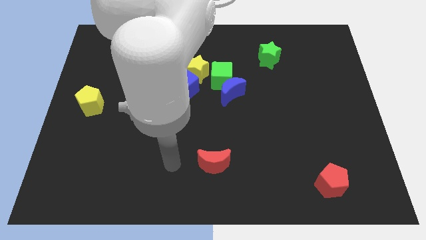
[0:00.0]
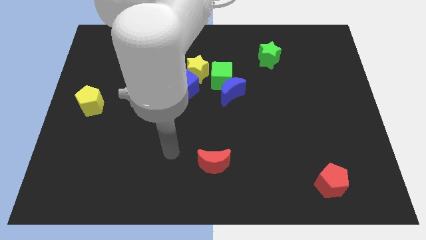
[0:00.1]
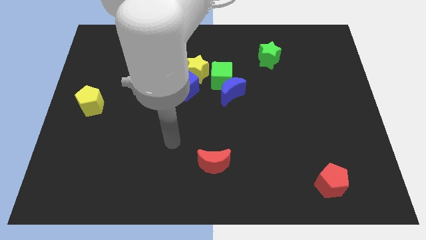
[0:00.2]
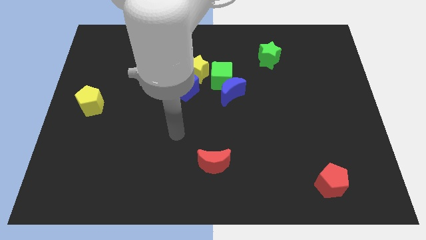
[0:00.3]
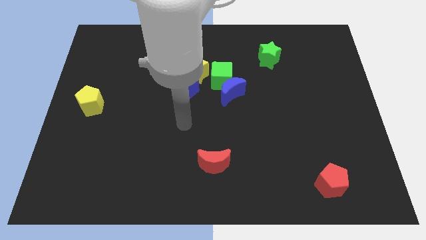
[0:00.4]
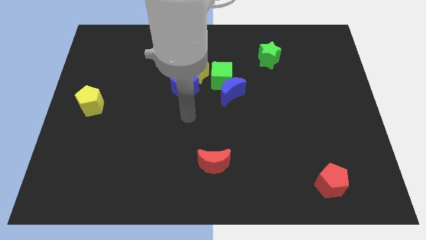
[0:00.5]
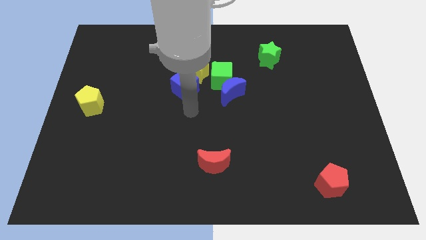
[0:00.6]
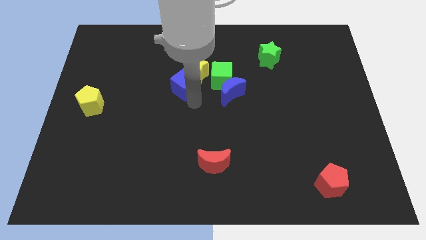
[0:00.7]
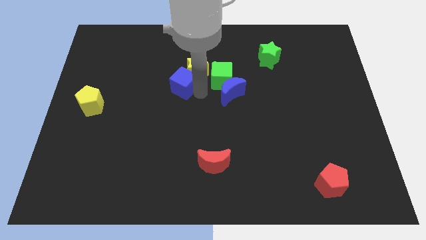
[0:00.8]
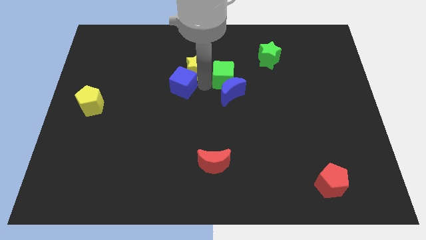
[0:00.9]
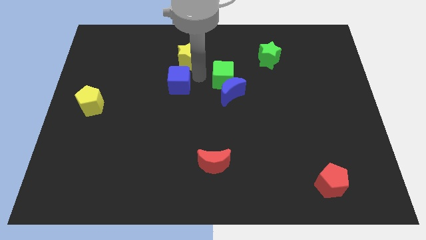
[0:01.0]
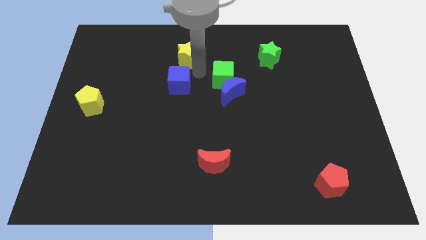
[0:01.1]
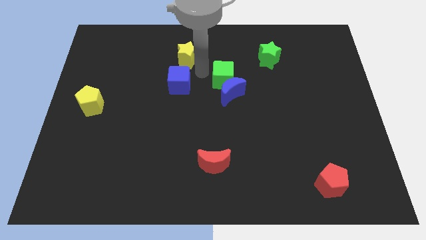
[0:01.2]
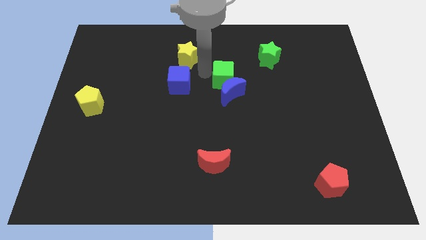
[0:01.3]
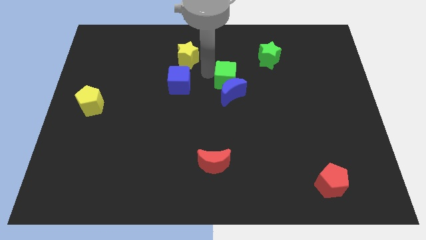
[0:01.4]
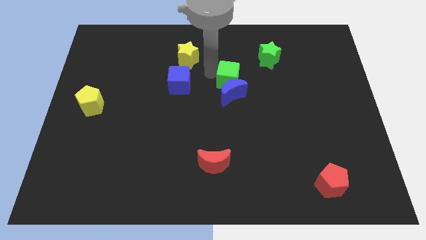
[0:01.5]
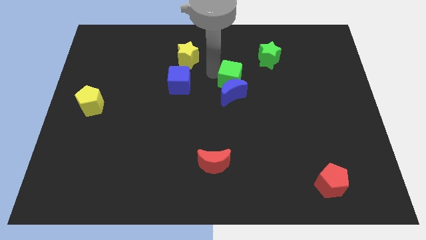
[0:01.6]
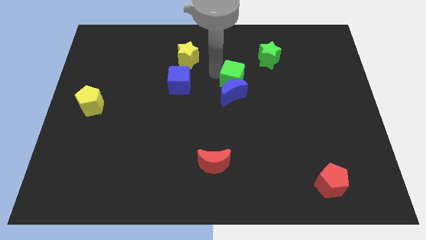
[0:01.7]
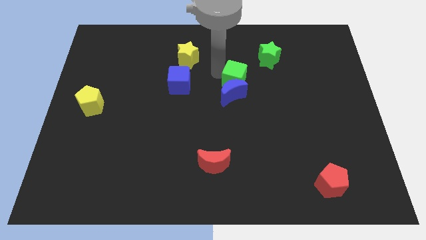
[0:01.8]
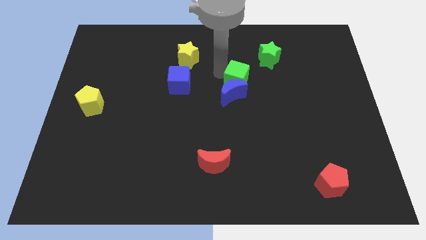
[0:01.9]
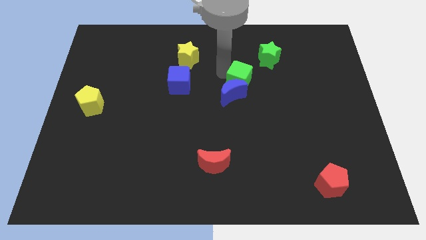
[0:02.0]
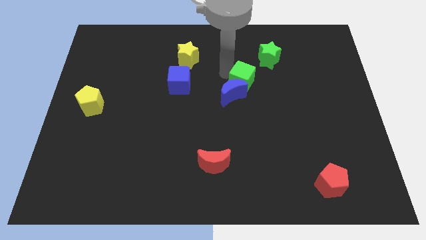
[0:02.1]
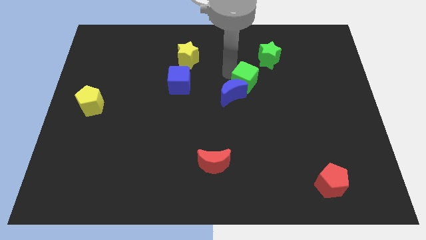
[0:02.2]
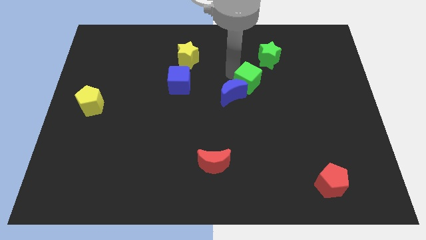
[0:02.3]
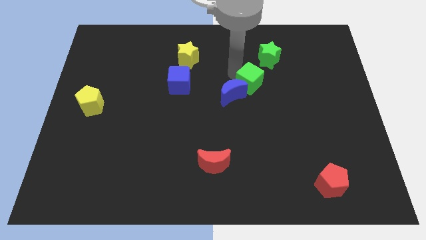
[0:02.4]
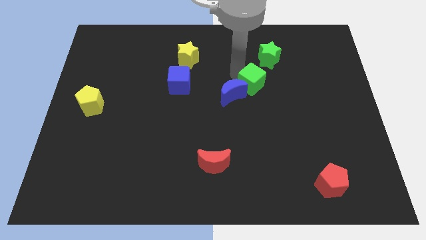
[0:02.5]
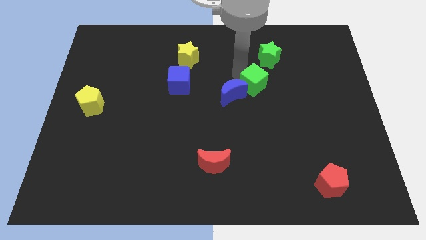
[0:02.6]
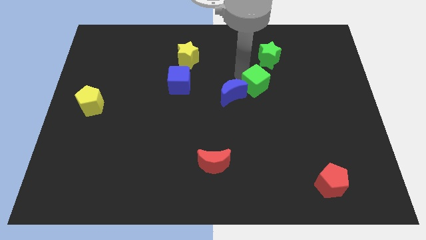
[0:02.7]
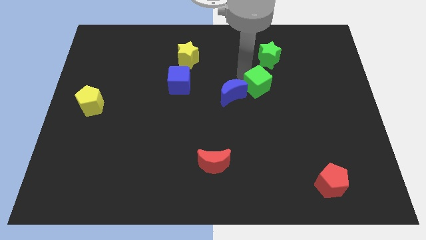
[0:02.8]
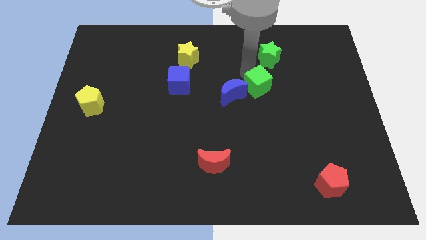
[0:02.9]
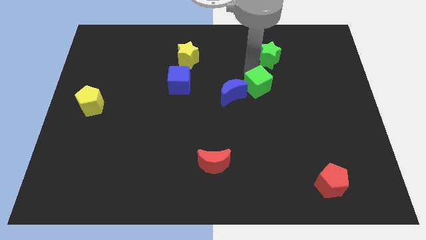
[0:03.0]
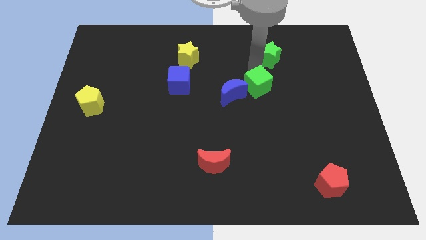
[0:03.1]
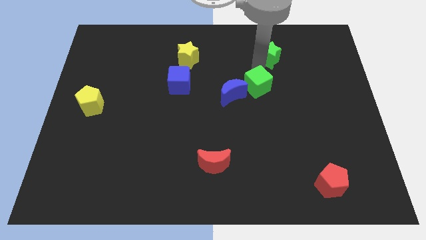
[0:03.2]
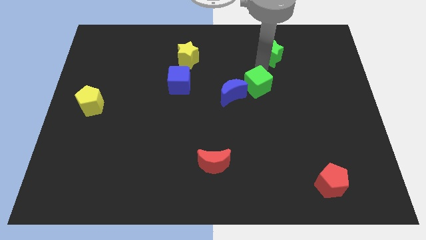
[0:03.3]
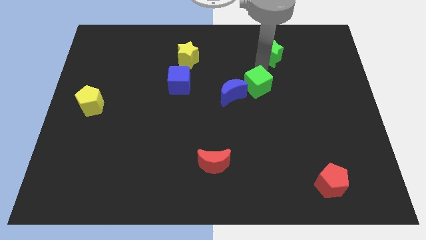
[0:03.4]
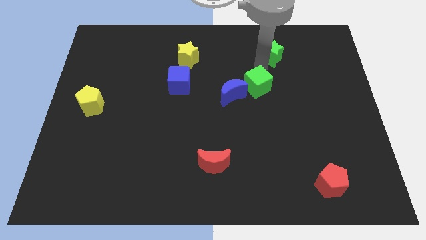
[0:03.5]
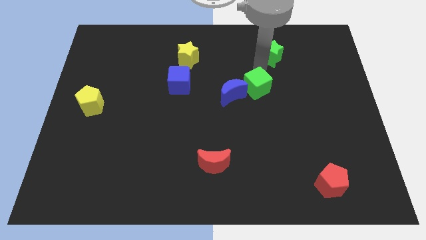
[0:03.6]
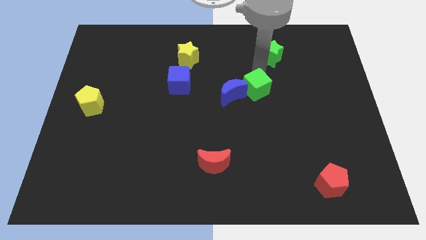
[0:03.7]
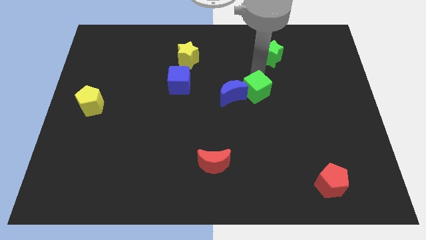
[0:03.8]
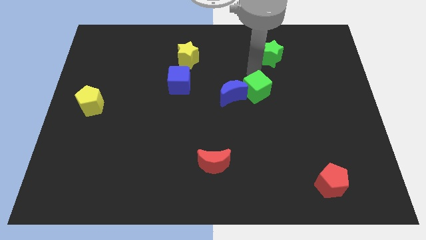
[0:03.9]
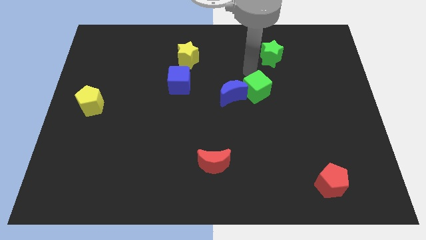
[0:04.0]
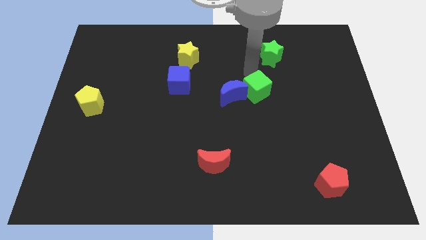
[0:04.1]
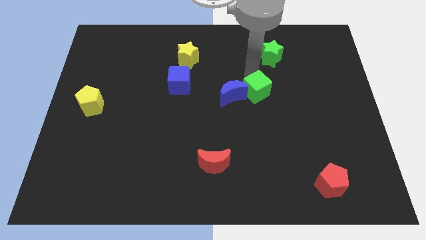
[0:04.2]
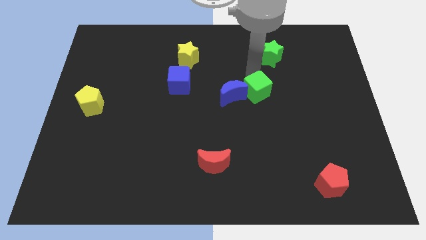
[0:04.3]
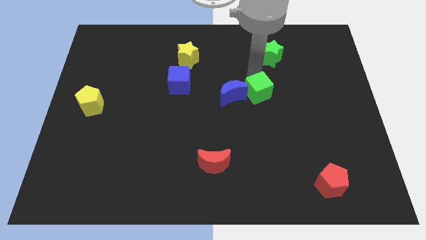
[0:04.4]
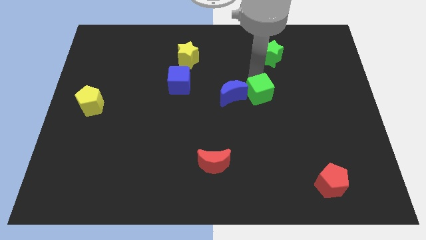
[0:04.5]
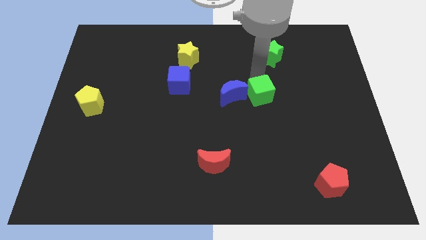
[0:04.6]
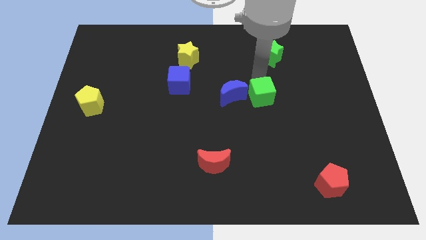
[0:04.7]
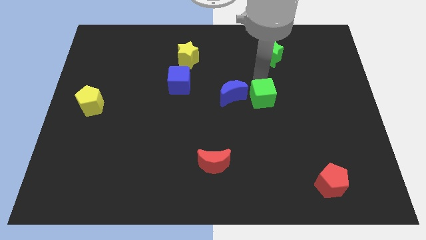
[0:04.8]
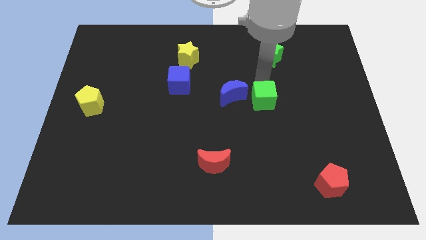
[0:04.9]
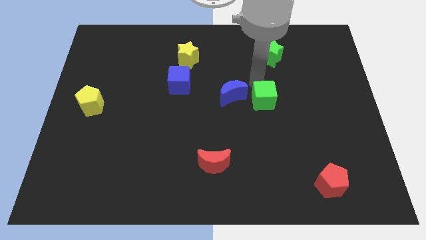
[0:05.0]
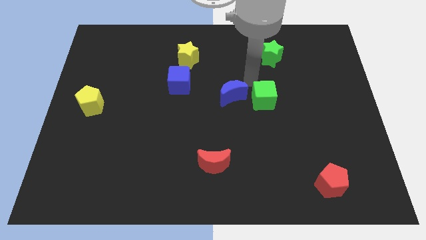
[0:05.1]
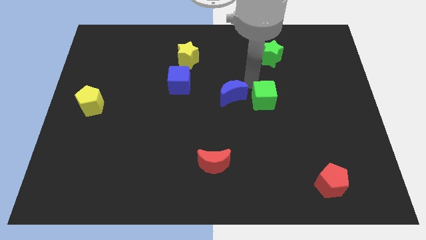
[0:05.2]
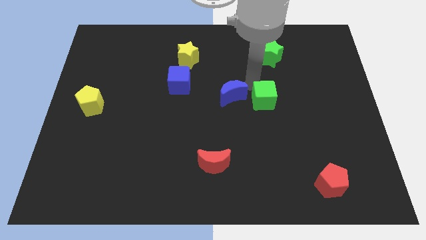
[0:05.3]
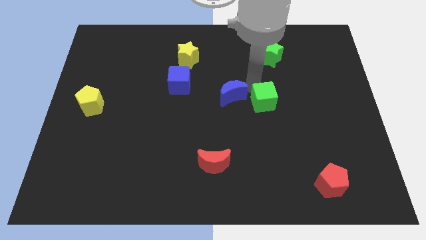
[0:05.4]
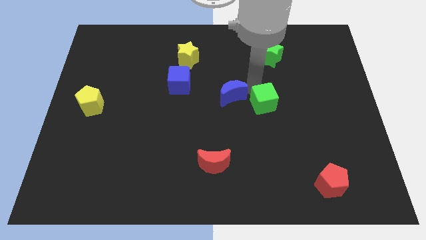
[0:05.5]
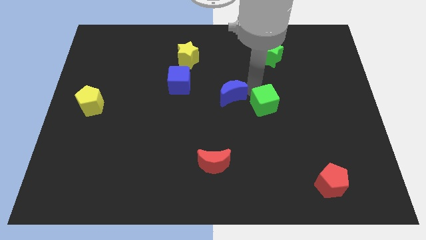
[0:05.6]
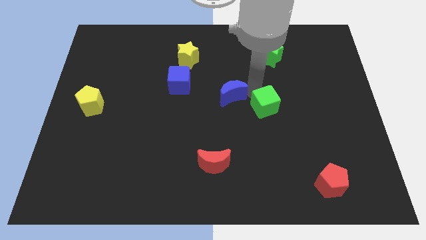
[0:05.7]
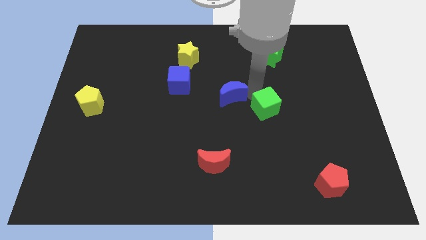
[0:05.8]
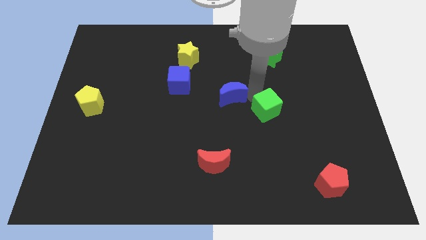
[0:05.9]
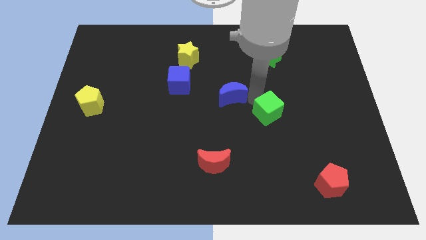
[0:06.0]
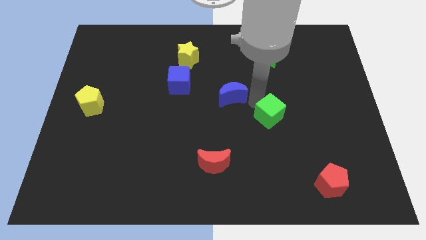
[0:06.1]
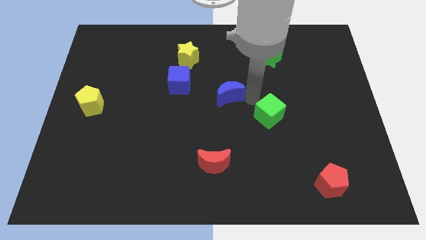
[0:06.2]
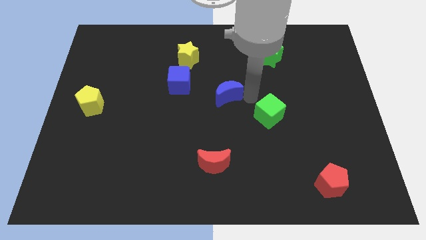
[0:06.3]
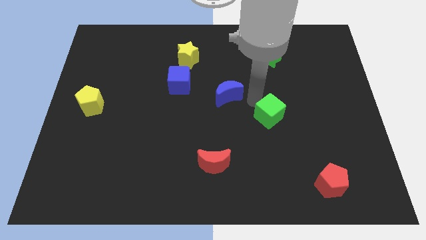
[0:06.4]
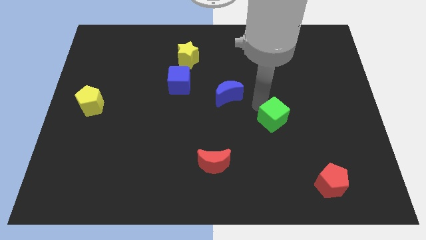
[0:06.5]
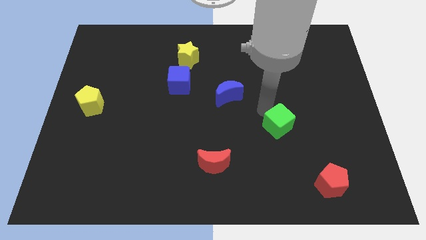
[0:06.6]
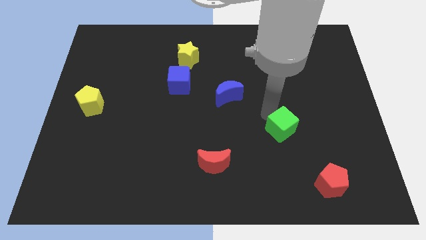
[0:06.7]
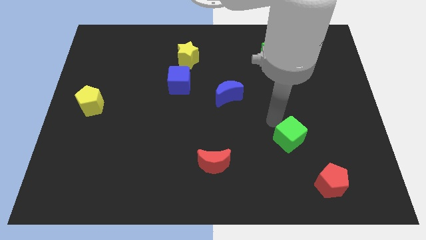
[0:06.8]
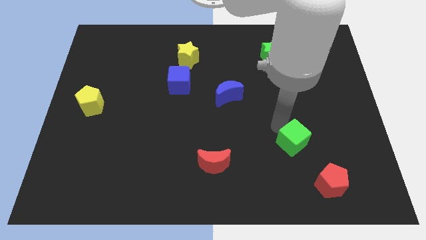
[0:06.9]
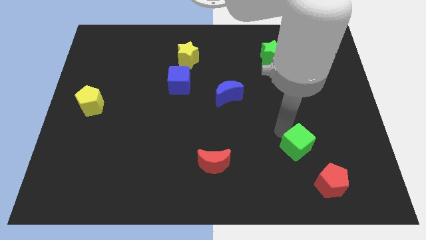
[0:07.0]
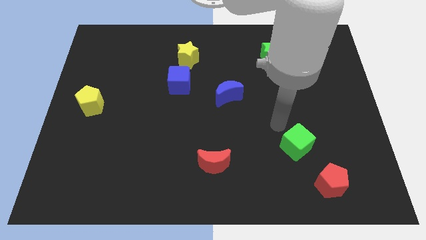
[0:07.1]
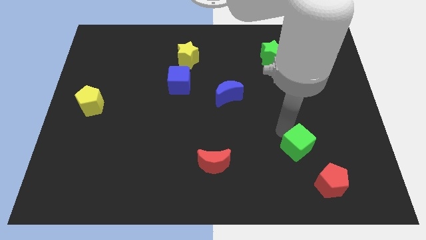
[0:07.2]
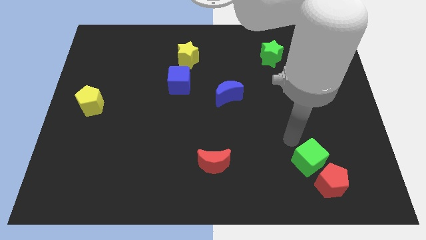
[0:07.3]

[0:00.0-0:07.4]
slide the green cube to the red pentagon

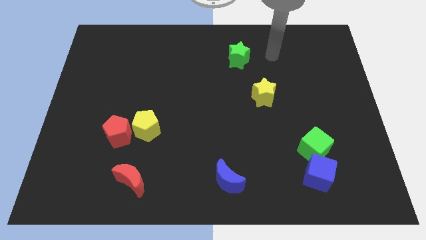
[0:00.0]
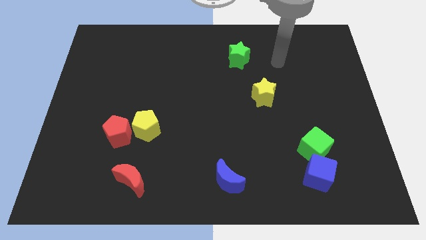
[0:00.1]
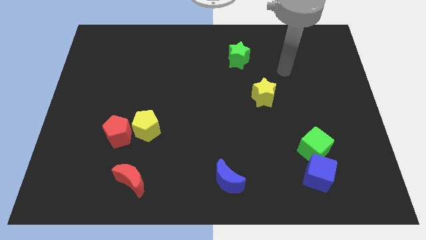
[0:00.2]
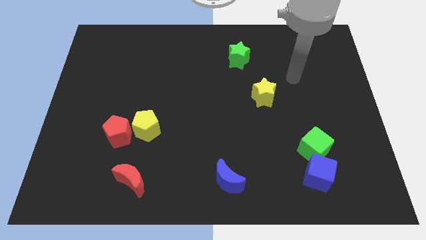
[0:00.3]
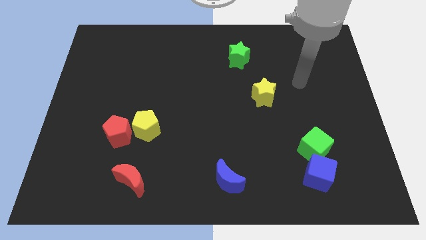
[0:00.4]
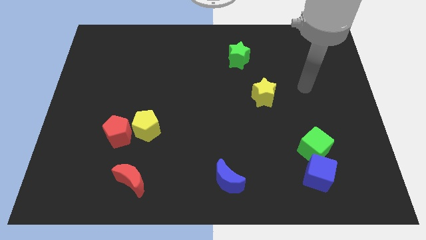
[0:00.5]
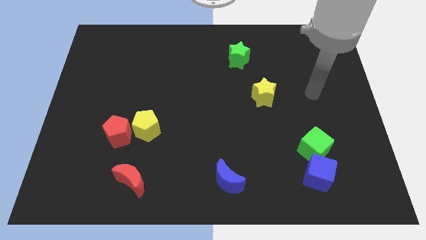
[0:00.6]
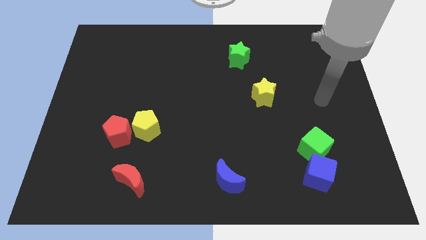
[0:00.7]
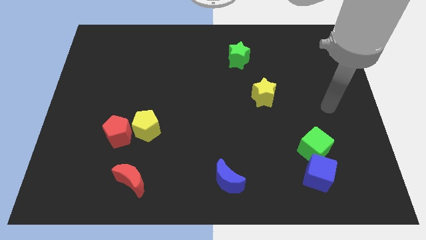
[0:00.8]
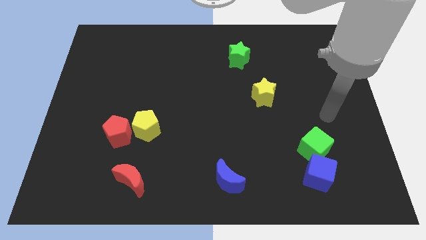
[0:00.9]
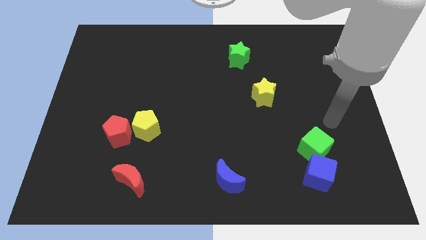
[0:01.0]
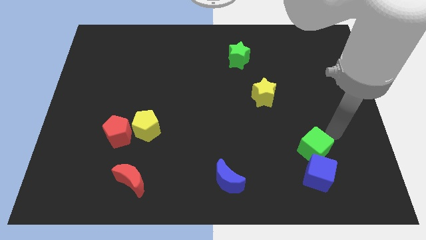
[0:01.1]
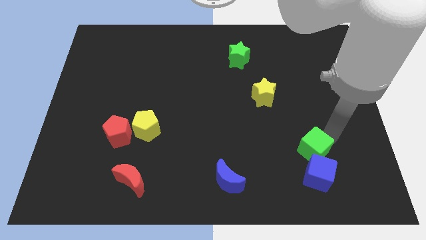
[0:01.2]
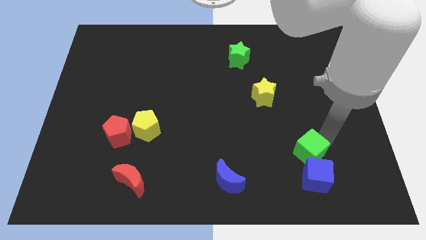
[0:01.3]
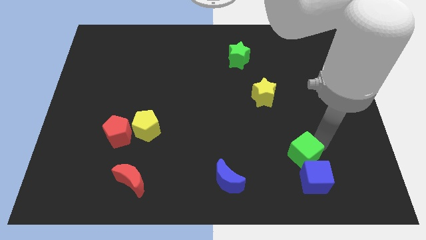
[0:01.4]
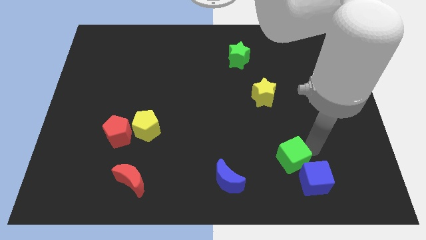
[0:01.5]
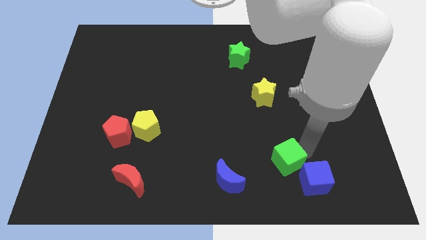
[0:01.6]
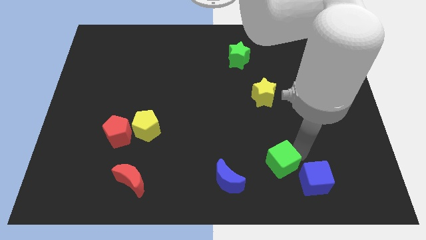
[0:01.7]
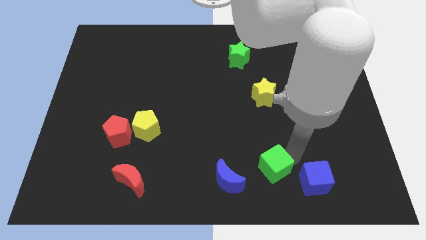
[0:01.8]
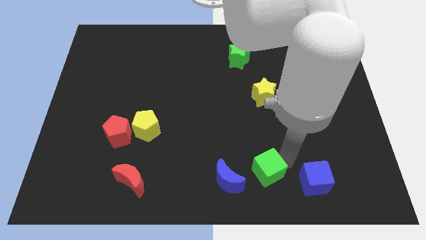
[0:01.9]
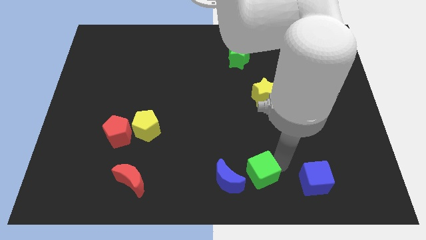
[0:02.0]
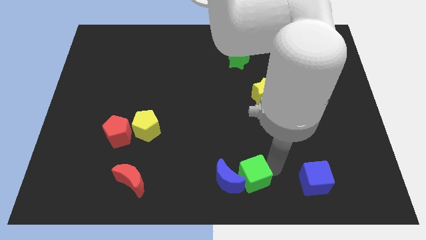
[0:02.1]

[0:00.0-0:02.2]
push the green cube towards the blue moon
